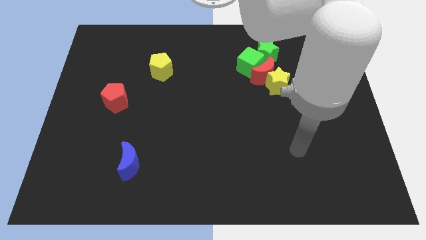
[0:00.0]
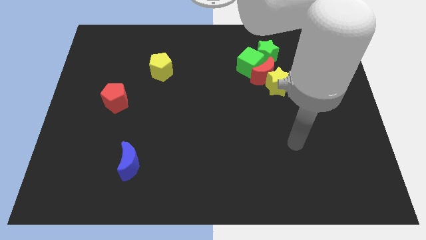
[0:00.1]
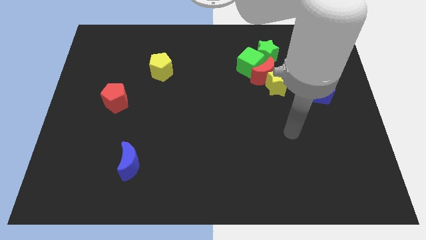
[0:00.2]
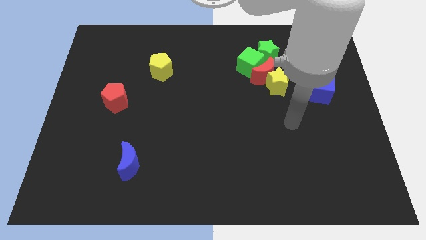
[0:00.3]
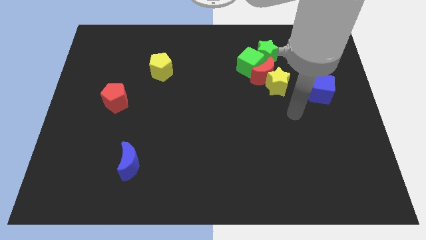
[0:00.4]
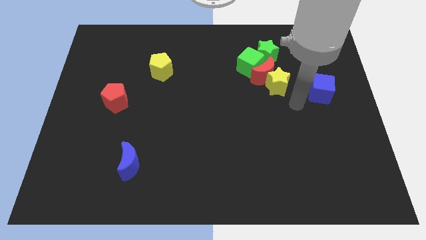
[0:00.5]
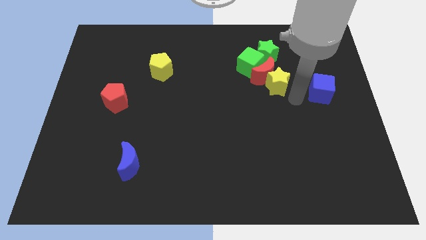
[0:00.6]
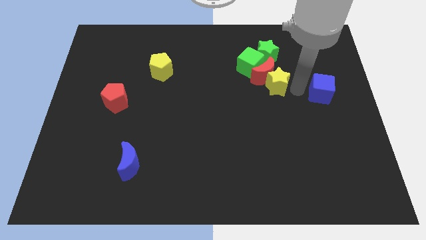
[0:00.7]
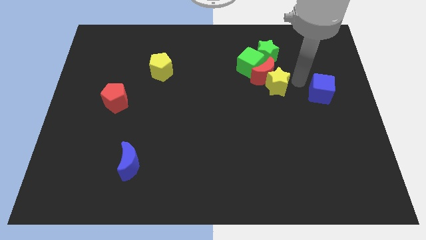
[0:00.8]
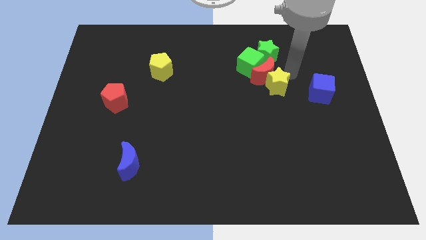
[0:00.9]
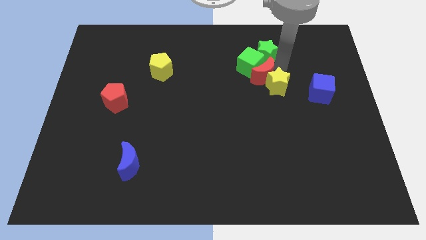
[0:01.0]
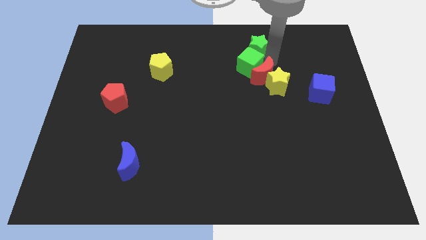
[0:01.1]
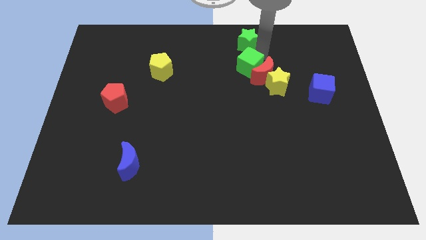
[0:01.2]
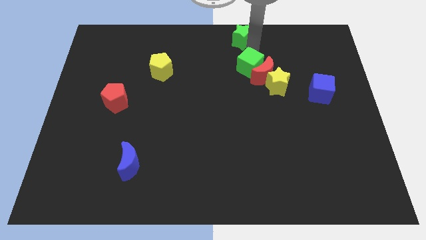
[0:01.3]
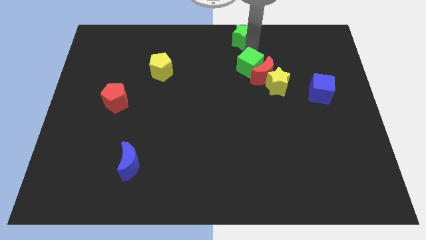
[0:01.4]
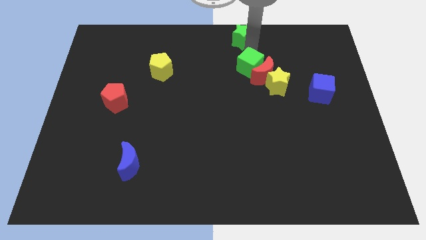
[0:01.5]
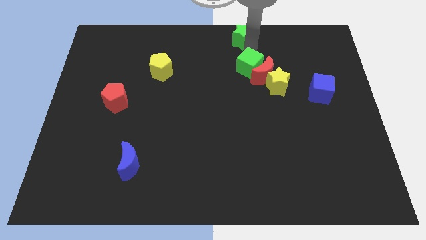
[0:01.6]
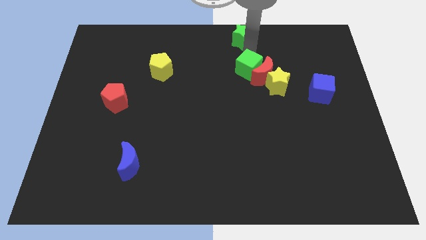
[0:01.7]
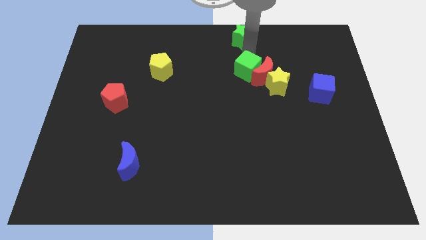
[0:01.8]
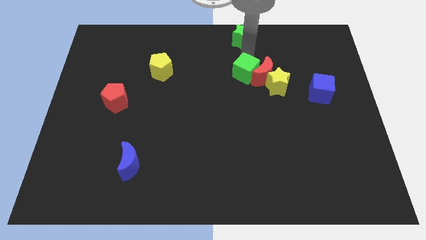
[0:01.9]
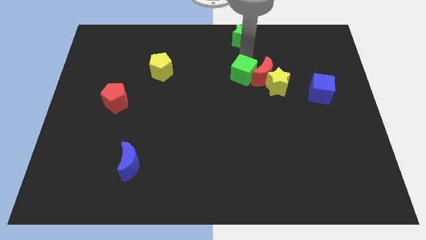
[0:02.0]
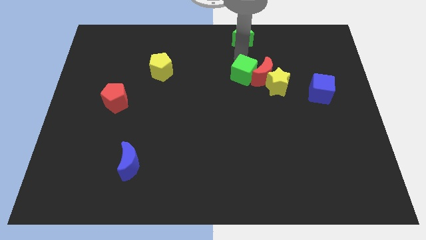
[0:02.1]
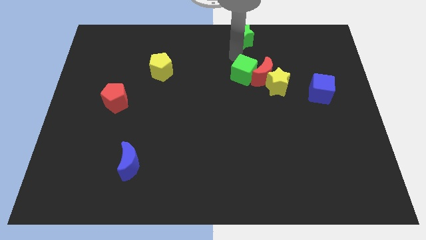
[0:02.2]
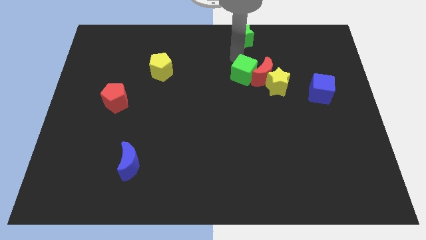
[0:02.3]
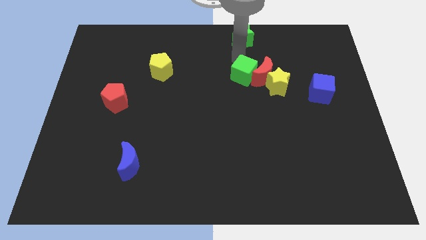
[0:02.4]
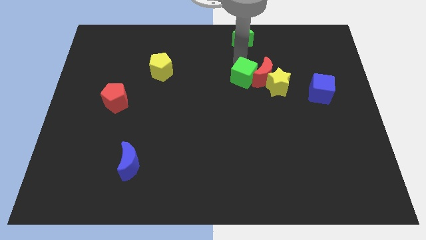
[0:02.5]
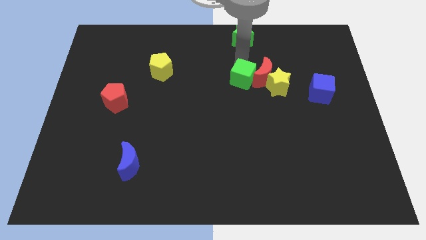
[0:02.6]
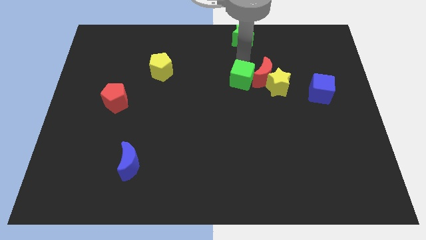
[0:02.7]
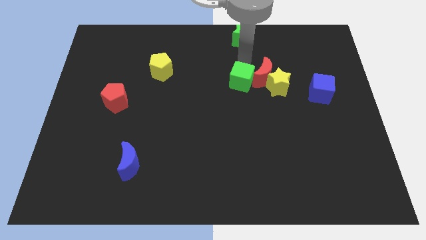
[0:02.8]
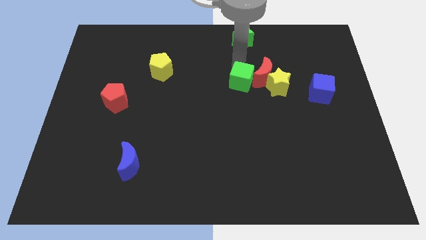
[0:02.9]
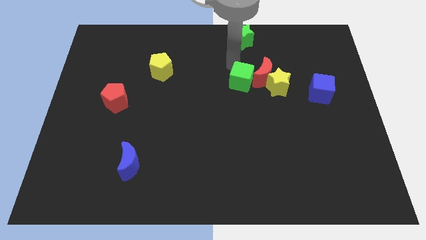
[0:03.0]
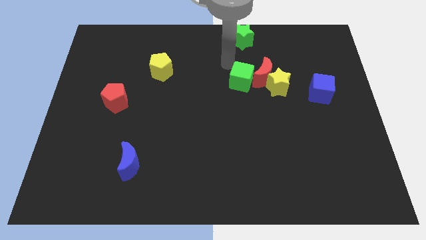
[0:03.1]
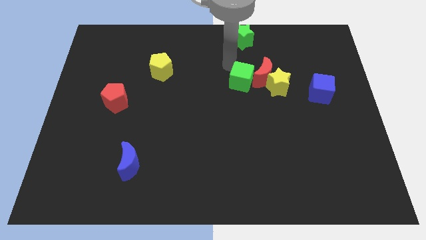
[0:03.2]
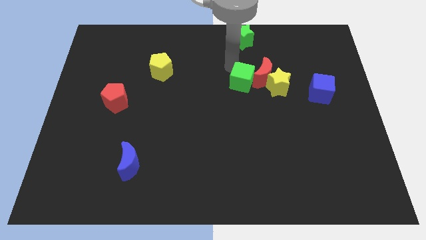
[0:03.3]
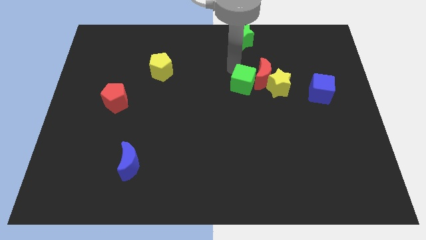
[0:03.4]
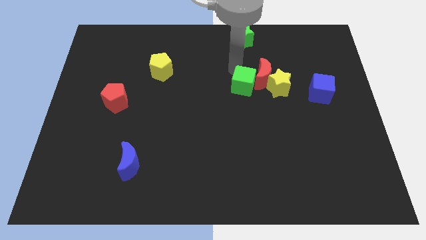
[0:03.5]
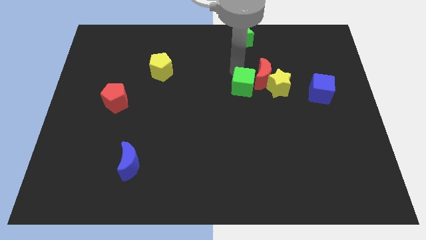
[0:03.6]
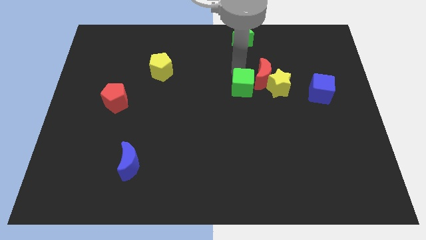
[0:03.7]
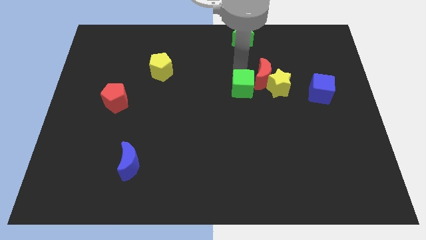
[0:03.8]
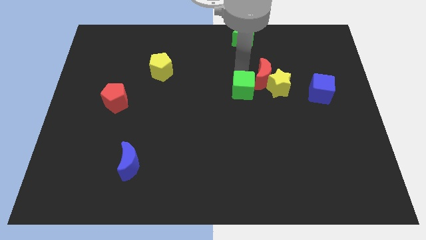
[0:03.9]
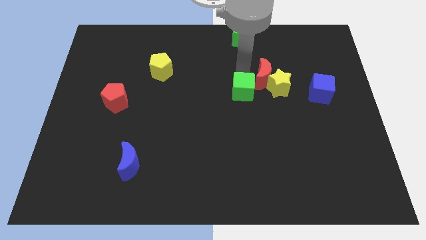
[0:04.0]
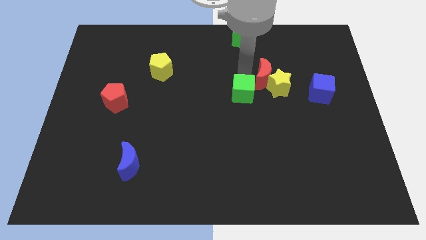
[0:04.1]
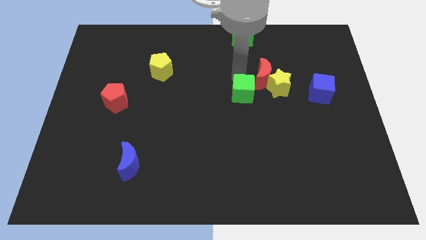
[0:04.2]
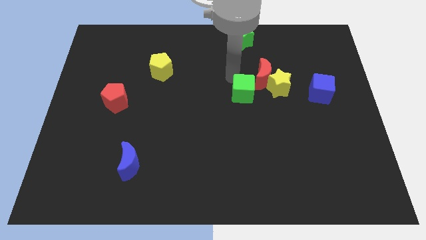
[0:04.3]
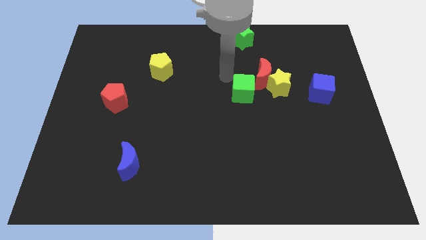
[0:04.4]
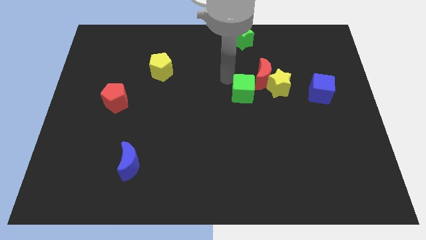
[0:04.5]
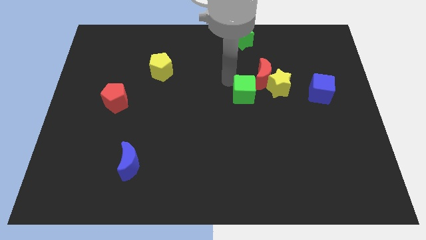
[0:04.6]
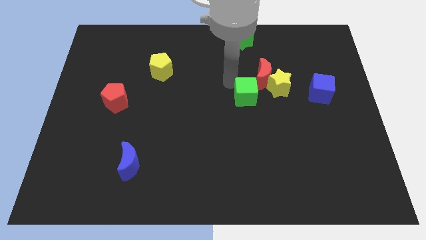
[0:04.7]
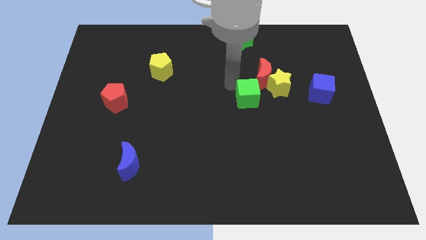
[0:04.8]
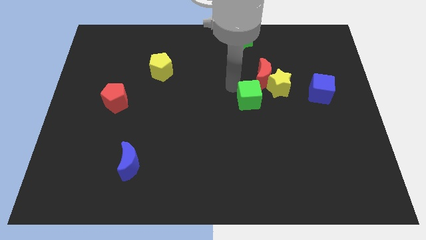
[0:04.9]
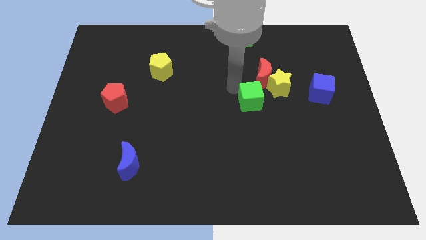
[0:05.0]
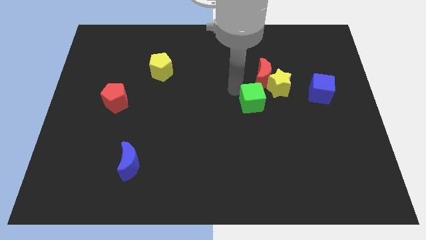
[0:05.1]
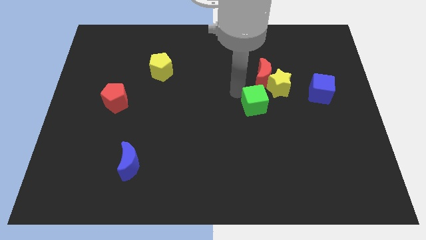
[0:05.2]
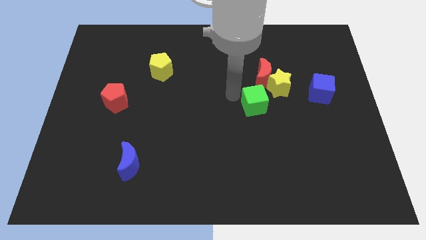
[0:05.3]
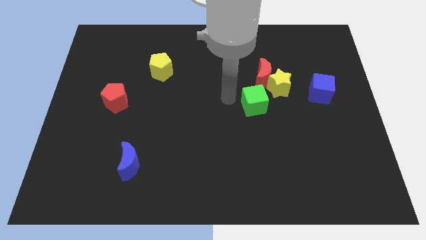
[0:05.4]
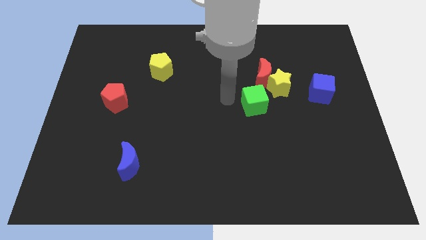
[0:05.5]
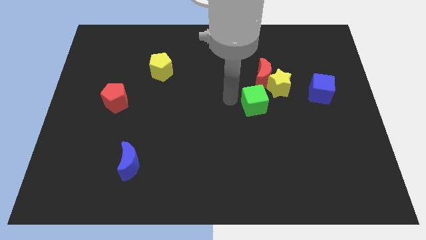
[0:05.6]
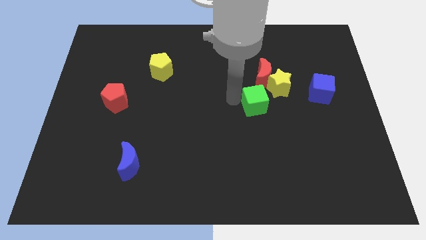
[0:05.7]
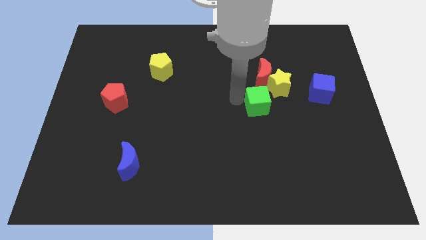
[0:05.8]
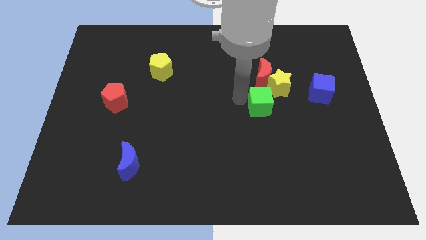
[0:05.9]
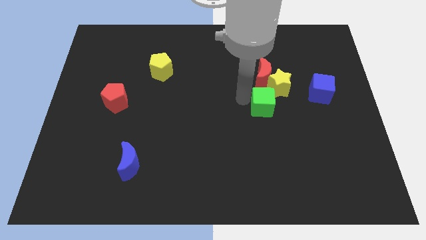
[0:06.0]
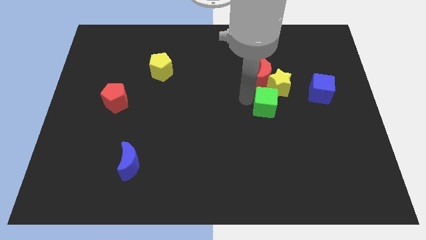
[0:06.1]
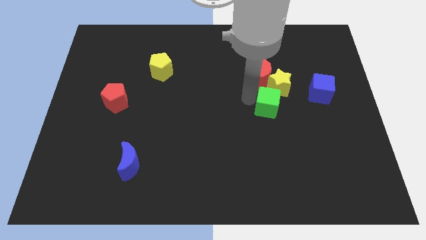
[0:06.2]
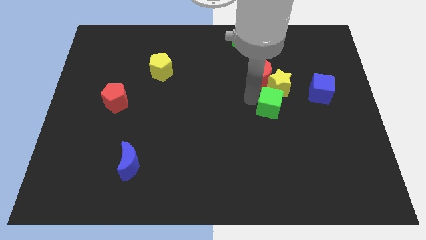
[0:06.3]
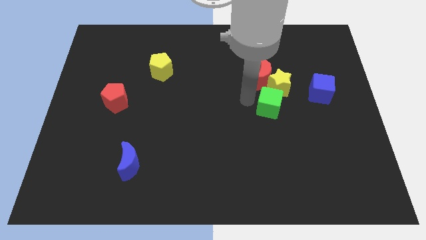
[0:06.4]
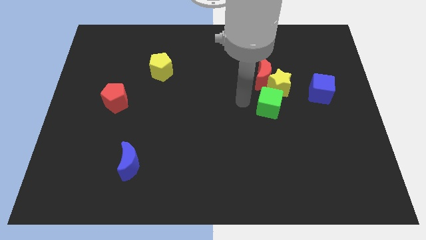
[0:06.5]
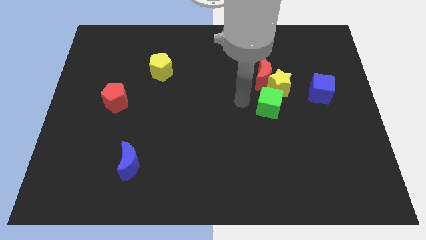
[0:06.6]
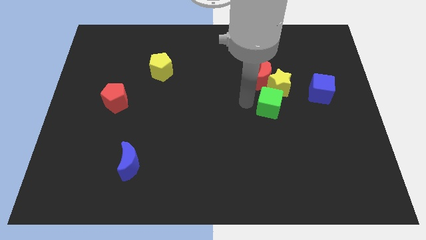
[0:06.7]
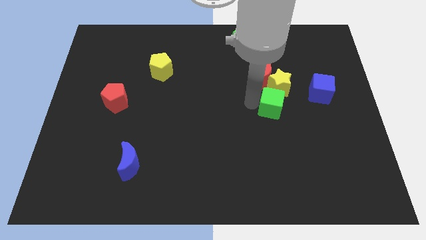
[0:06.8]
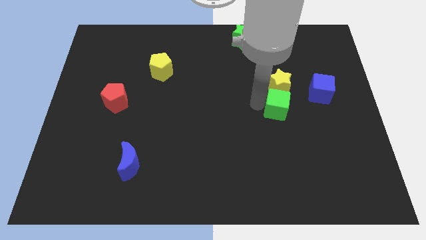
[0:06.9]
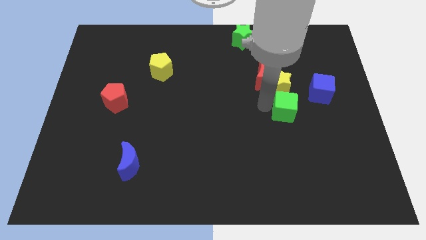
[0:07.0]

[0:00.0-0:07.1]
move the green cube diagonally down and to the left of the blue cube

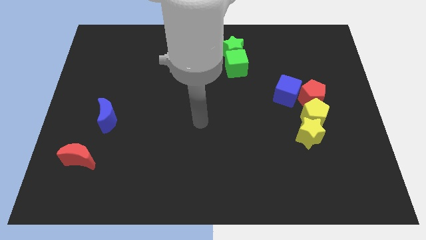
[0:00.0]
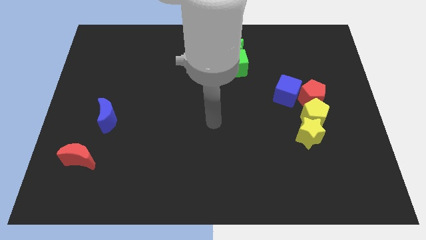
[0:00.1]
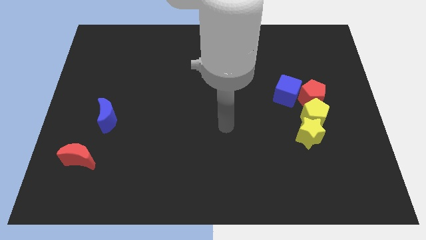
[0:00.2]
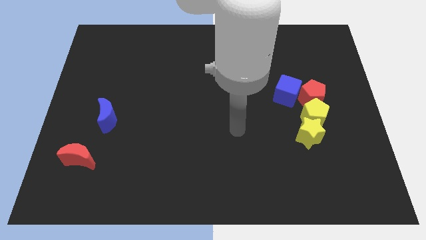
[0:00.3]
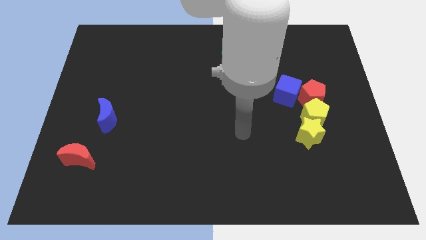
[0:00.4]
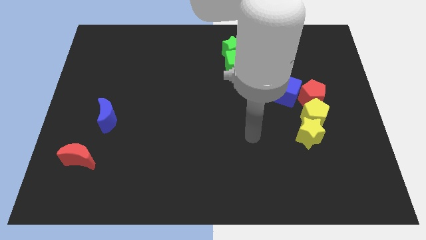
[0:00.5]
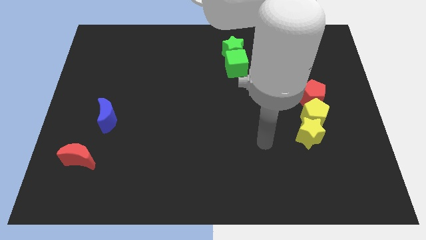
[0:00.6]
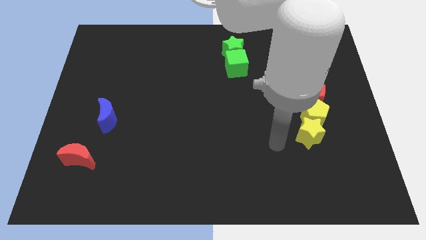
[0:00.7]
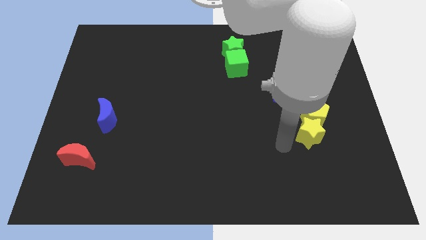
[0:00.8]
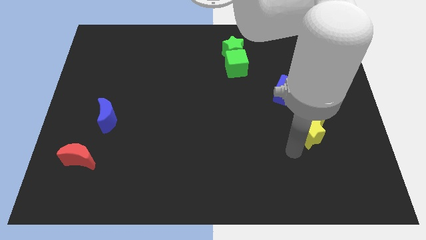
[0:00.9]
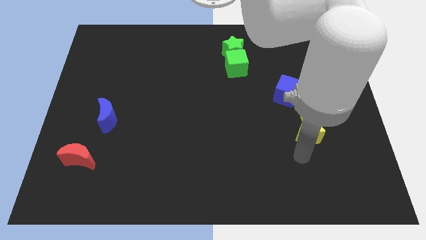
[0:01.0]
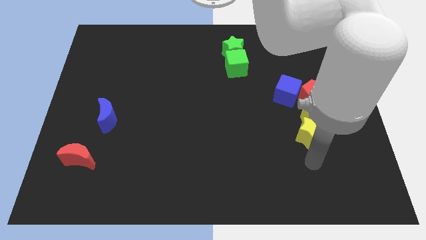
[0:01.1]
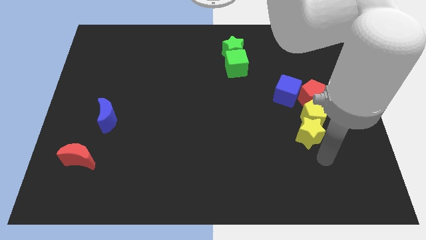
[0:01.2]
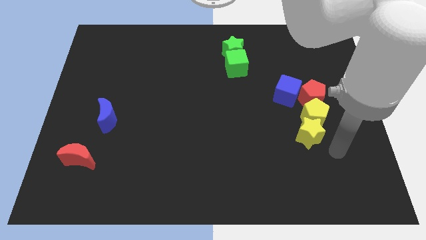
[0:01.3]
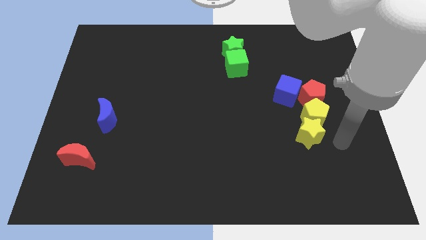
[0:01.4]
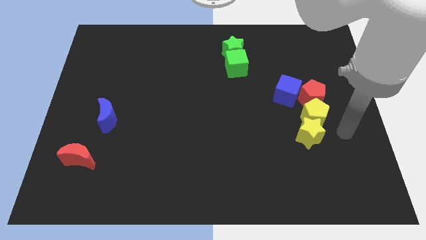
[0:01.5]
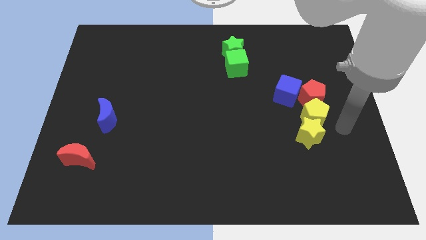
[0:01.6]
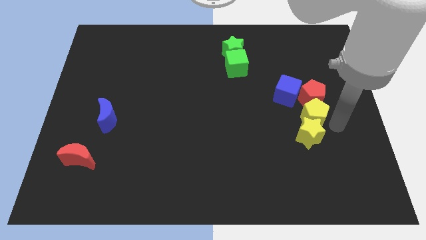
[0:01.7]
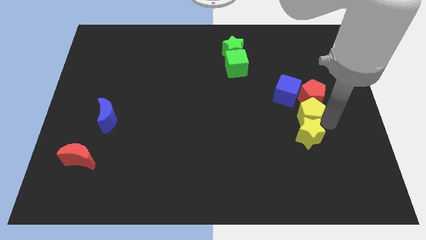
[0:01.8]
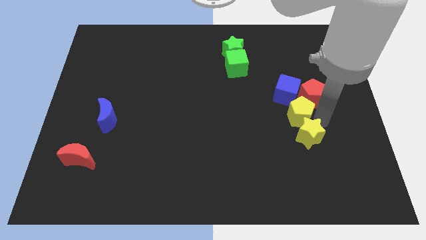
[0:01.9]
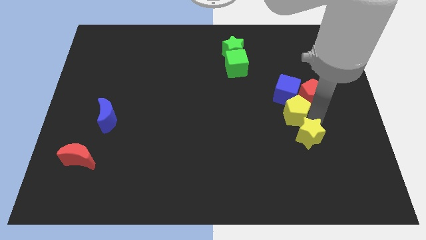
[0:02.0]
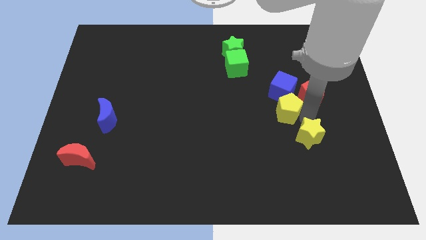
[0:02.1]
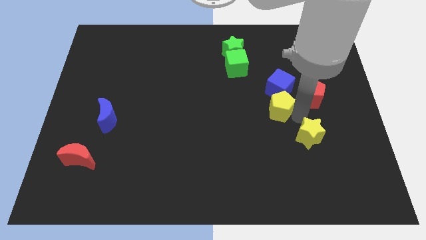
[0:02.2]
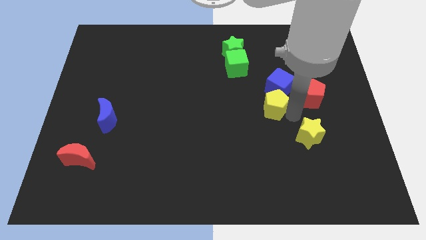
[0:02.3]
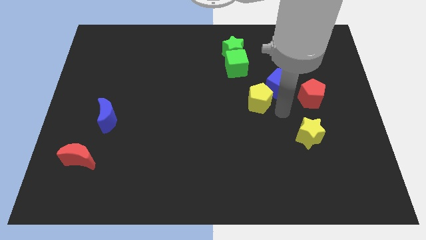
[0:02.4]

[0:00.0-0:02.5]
move the yellow pentagon left of the blue cube
